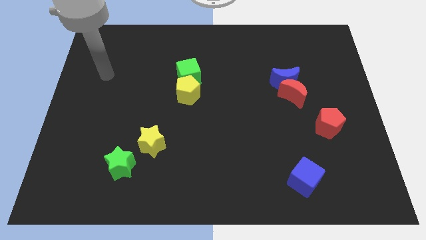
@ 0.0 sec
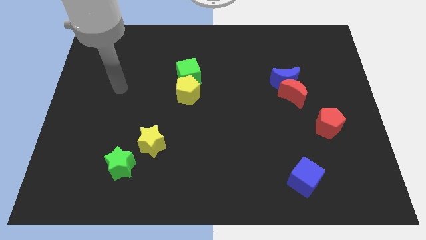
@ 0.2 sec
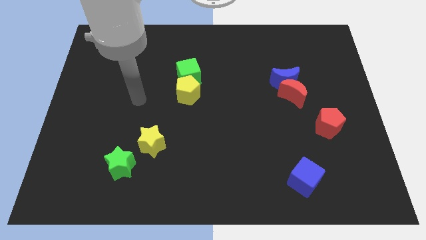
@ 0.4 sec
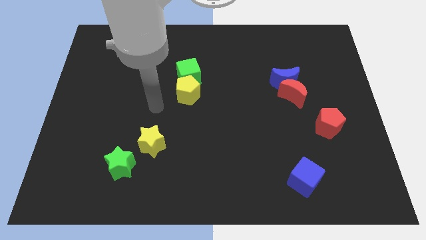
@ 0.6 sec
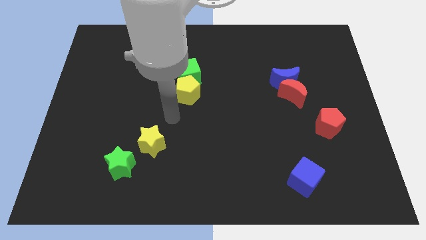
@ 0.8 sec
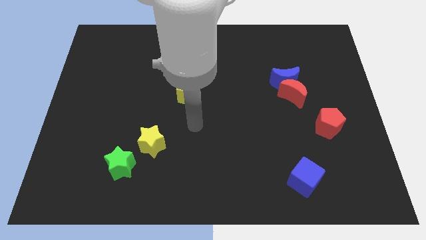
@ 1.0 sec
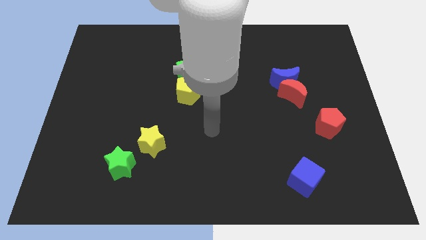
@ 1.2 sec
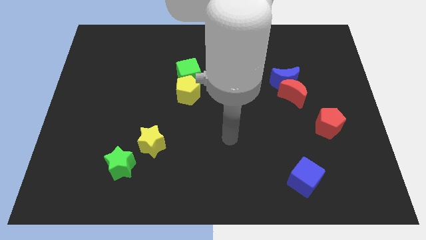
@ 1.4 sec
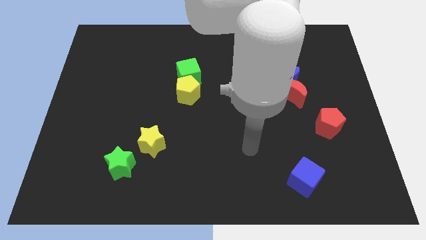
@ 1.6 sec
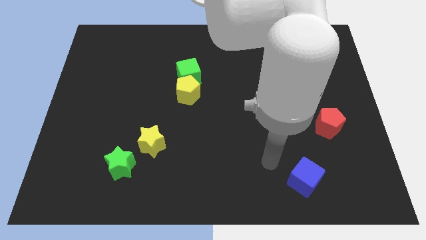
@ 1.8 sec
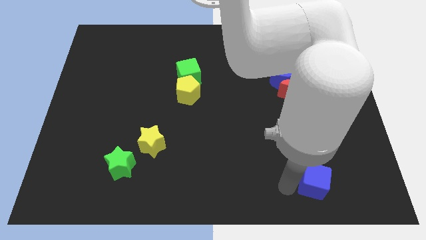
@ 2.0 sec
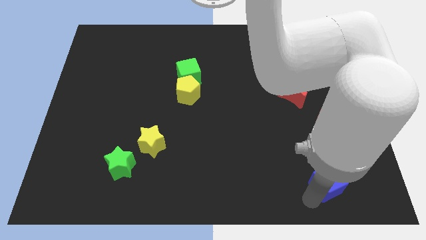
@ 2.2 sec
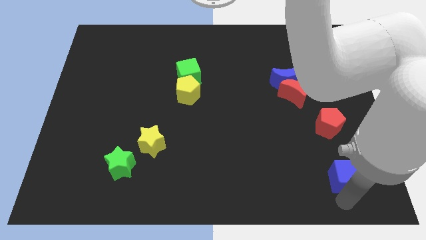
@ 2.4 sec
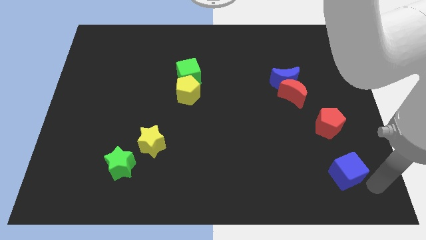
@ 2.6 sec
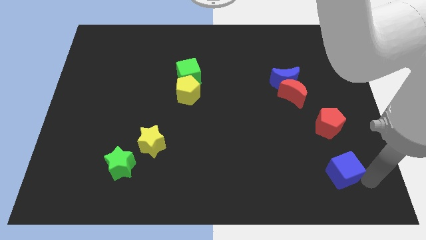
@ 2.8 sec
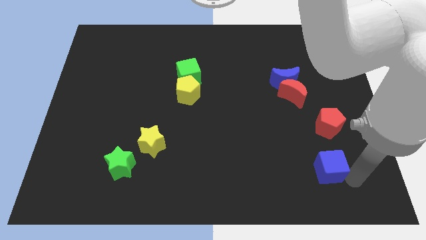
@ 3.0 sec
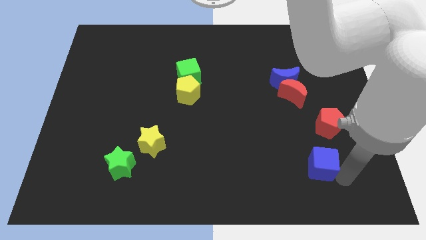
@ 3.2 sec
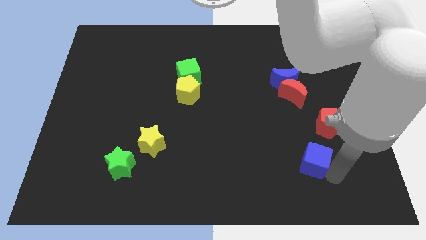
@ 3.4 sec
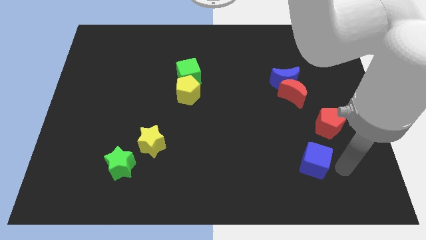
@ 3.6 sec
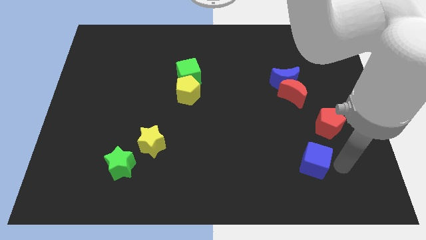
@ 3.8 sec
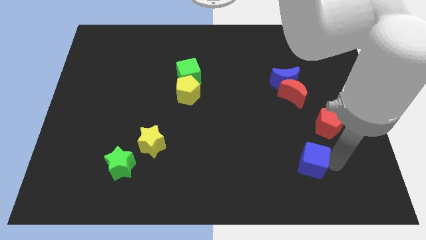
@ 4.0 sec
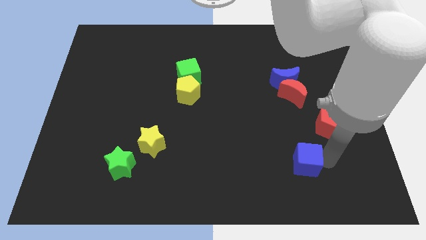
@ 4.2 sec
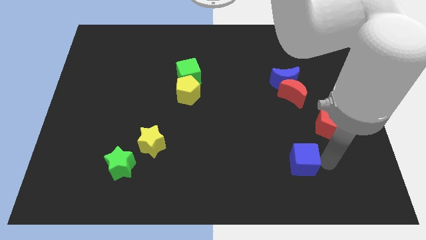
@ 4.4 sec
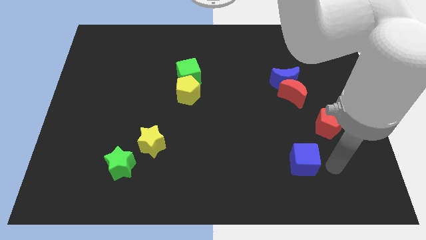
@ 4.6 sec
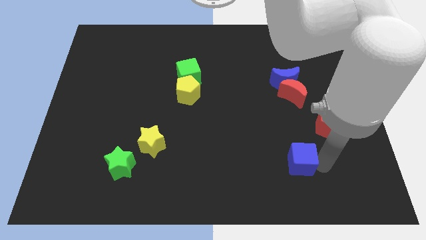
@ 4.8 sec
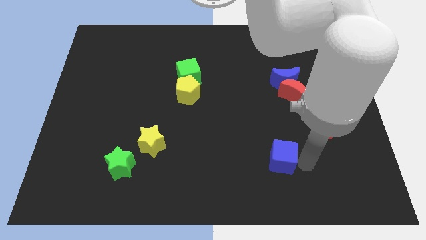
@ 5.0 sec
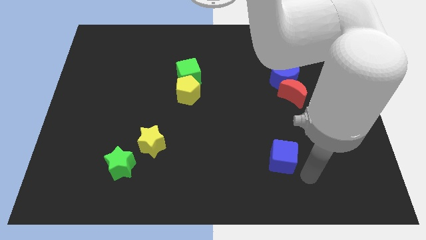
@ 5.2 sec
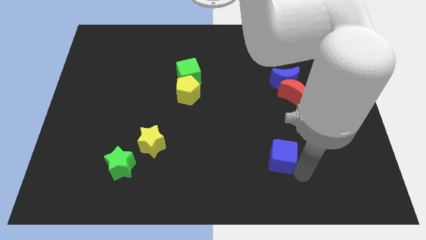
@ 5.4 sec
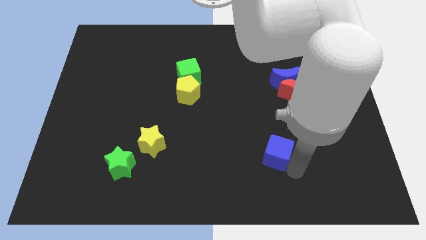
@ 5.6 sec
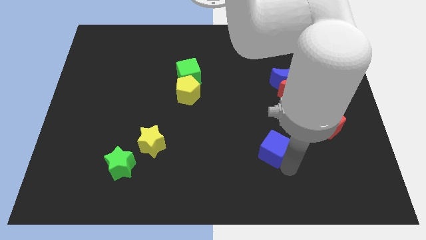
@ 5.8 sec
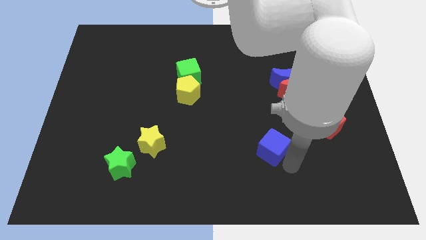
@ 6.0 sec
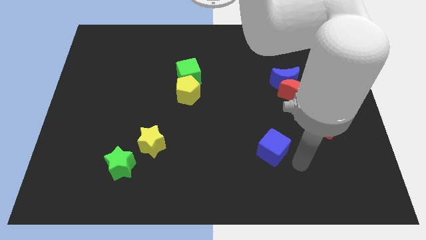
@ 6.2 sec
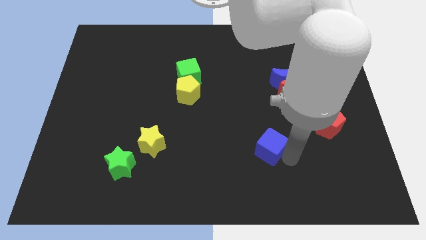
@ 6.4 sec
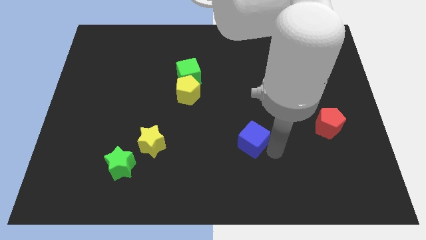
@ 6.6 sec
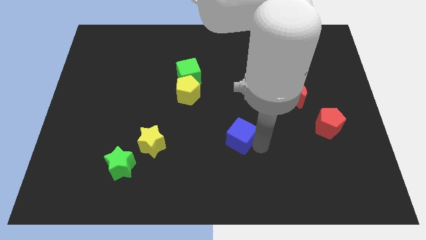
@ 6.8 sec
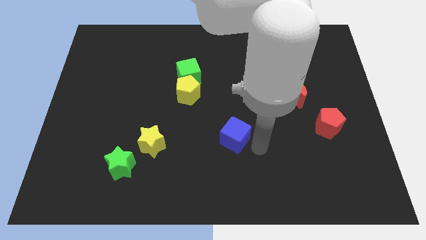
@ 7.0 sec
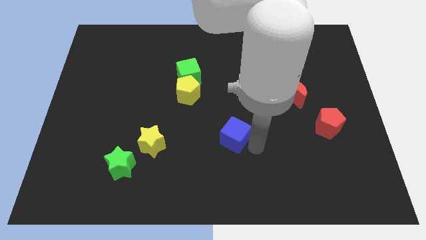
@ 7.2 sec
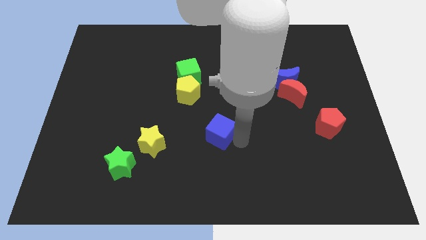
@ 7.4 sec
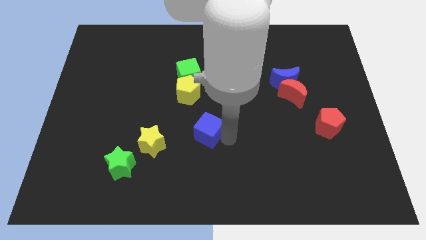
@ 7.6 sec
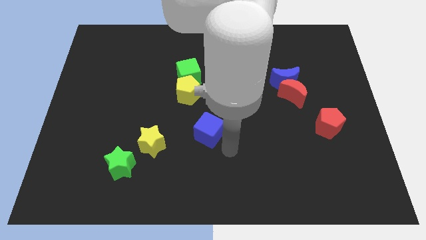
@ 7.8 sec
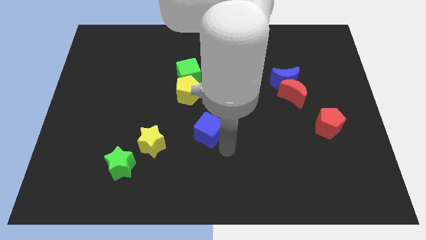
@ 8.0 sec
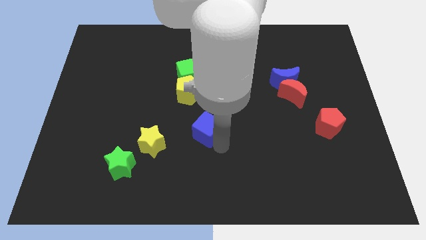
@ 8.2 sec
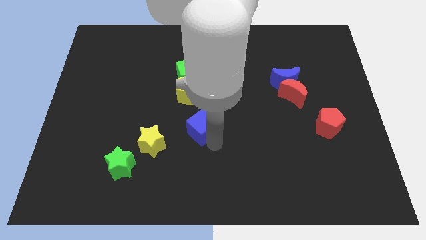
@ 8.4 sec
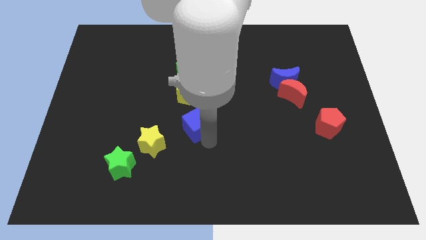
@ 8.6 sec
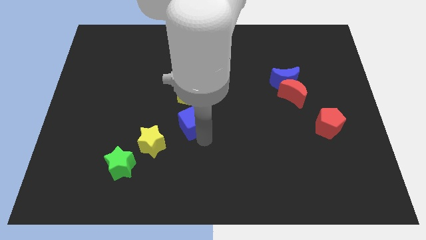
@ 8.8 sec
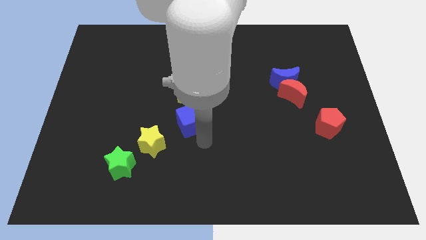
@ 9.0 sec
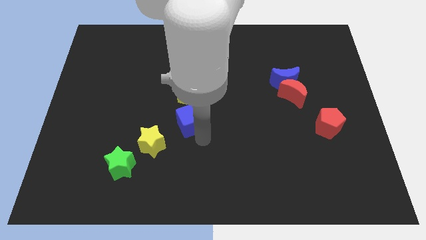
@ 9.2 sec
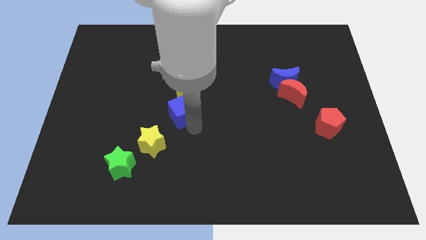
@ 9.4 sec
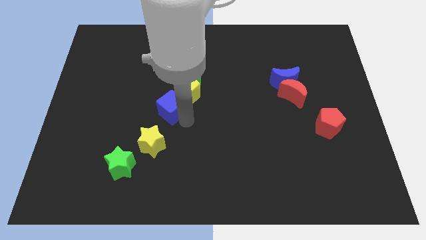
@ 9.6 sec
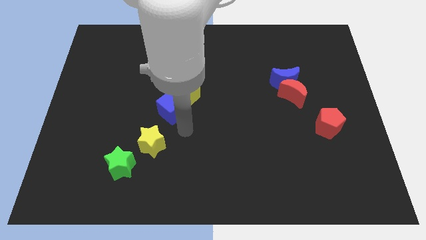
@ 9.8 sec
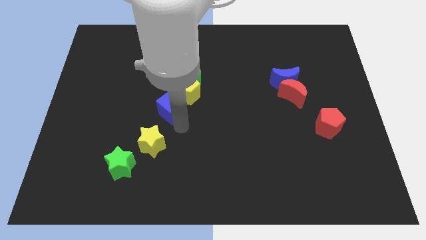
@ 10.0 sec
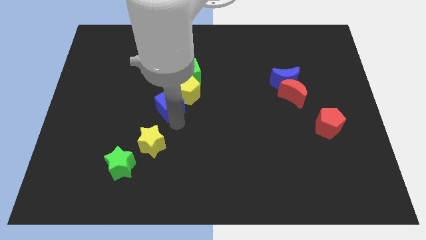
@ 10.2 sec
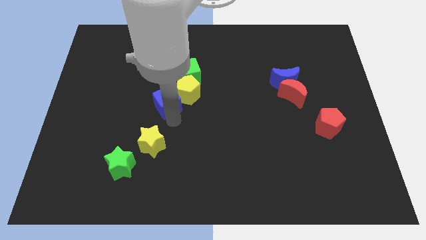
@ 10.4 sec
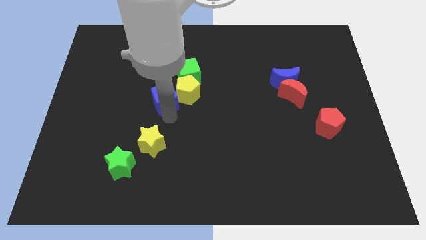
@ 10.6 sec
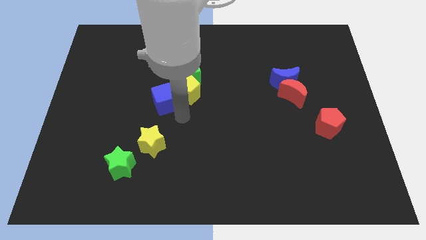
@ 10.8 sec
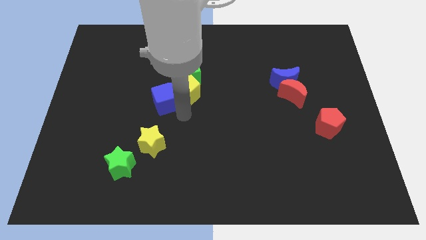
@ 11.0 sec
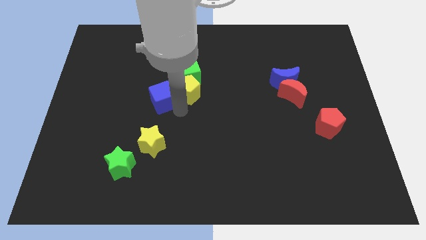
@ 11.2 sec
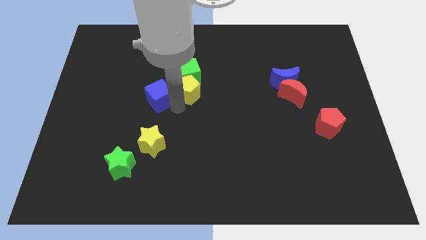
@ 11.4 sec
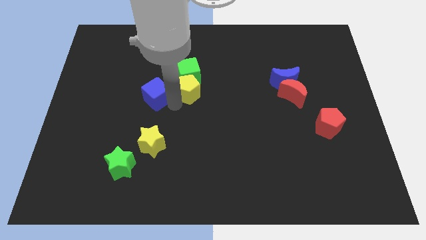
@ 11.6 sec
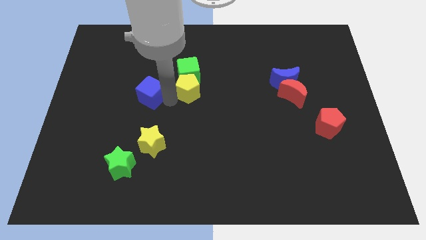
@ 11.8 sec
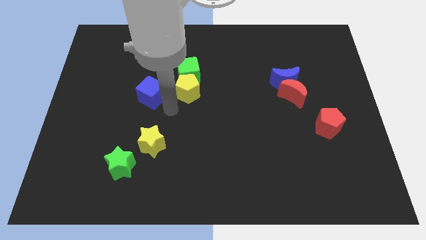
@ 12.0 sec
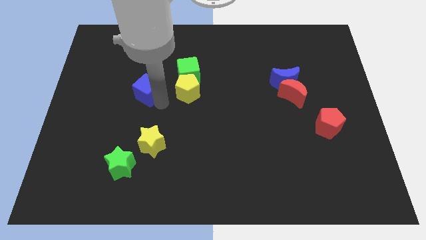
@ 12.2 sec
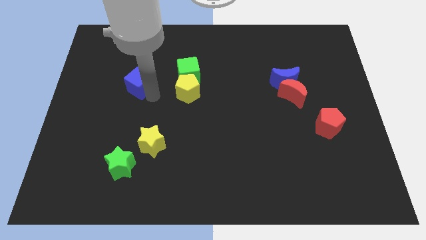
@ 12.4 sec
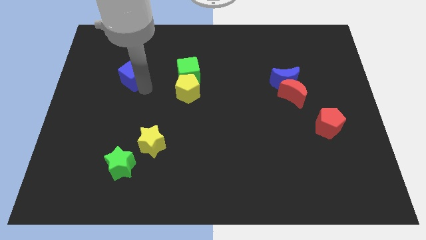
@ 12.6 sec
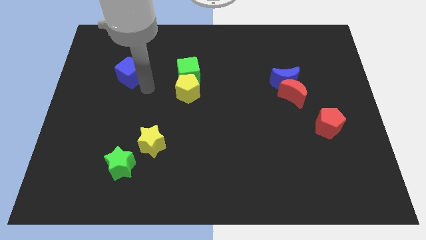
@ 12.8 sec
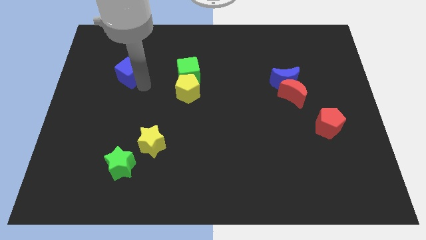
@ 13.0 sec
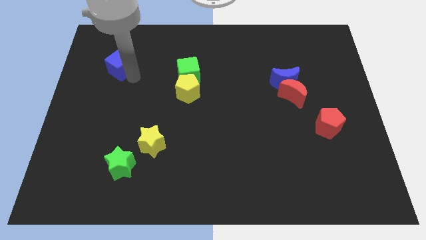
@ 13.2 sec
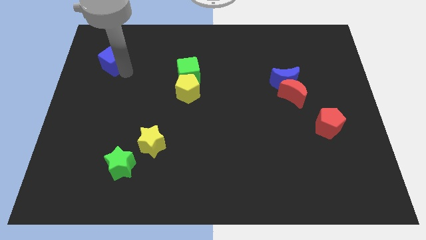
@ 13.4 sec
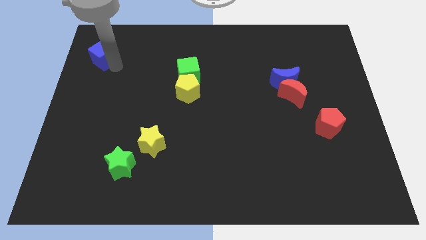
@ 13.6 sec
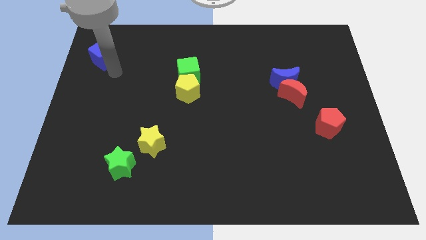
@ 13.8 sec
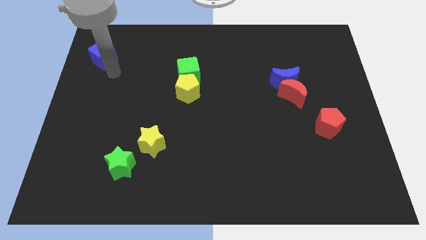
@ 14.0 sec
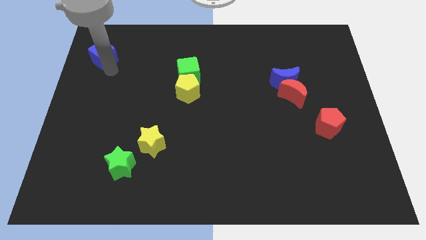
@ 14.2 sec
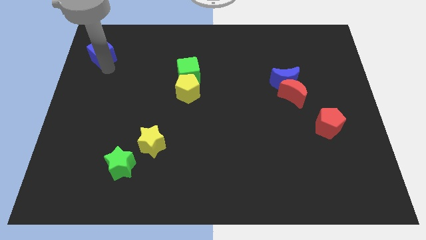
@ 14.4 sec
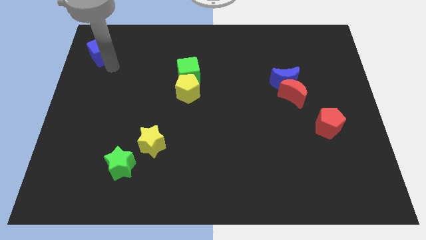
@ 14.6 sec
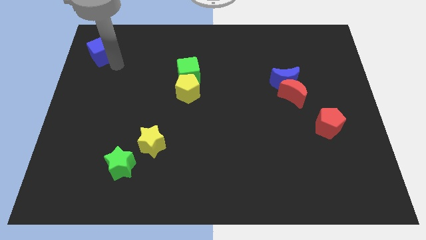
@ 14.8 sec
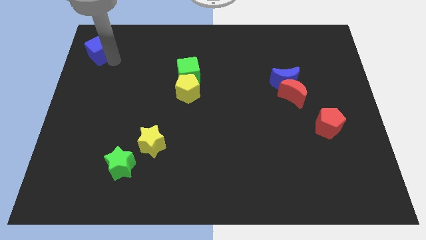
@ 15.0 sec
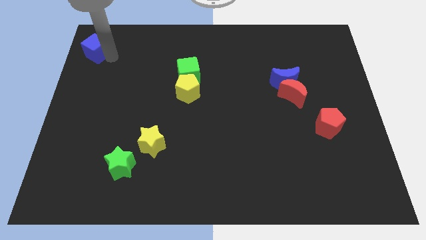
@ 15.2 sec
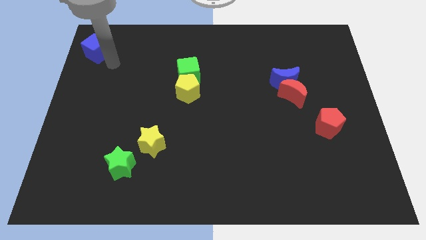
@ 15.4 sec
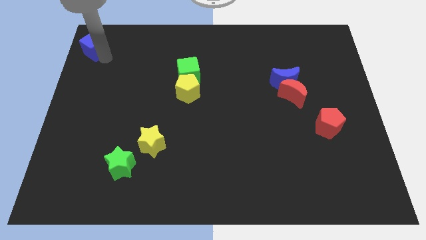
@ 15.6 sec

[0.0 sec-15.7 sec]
put the blue cube to the top left
